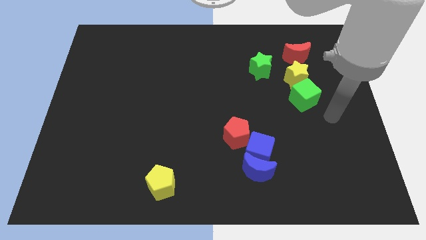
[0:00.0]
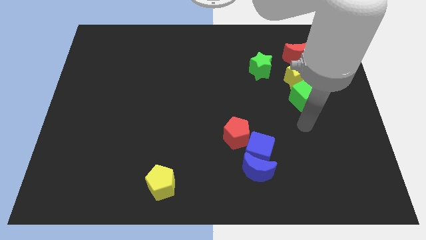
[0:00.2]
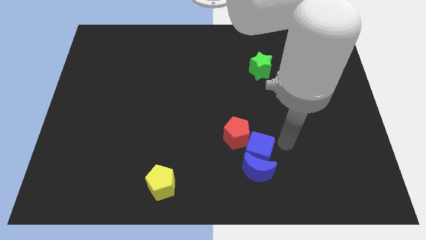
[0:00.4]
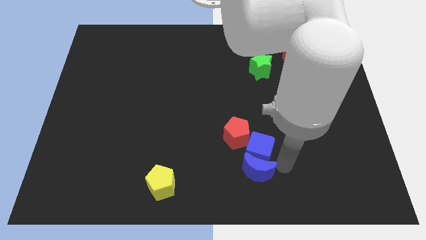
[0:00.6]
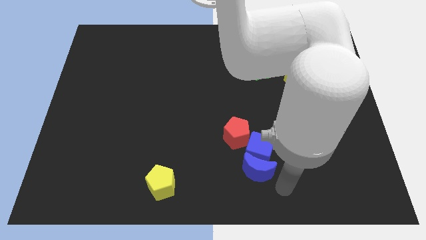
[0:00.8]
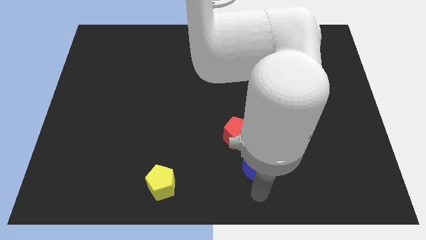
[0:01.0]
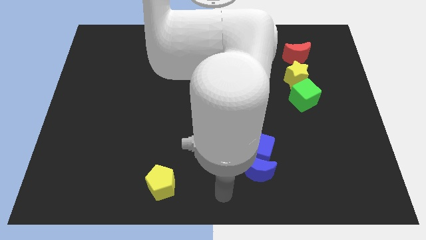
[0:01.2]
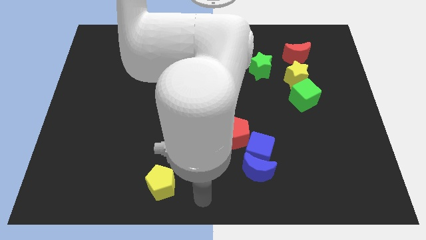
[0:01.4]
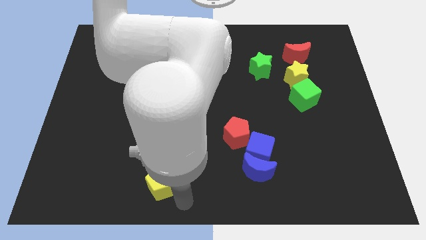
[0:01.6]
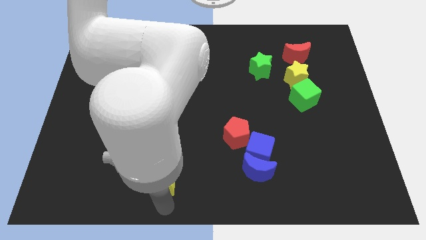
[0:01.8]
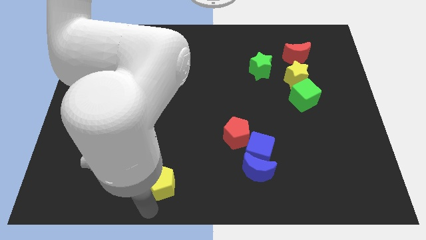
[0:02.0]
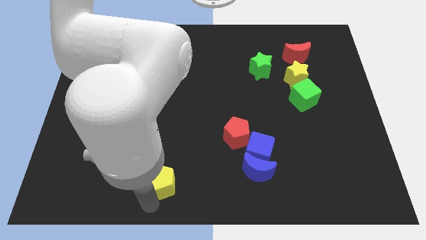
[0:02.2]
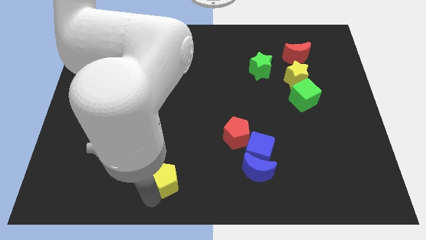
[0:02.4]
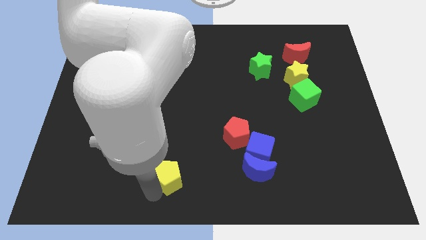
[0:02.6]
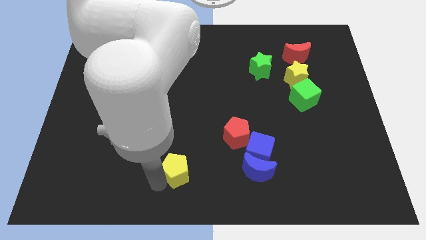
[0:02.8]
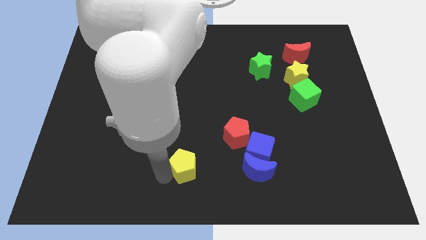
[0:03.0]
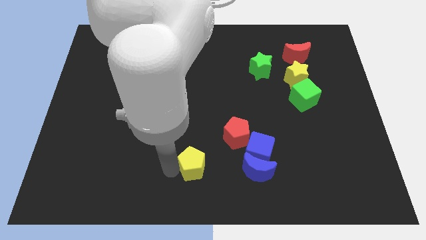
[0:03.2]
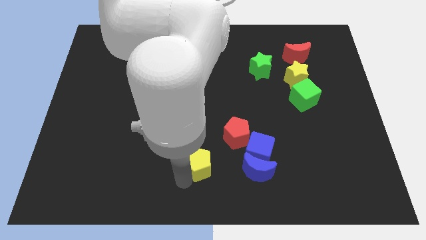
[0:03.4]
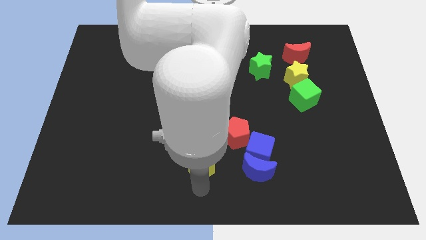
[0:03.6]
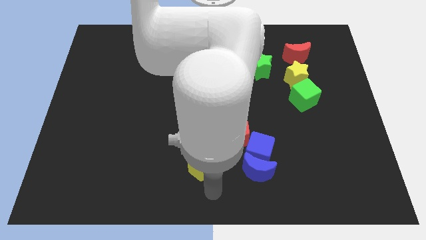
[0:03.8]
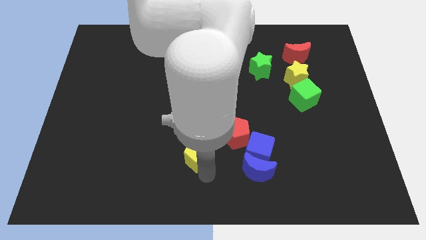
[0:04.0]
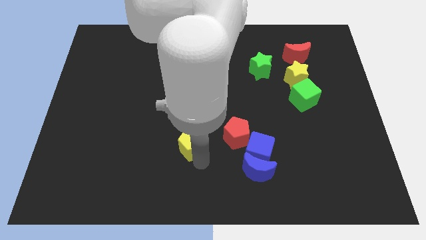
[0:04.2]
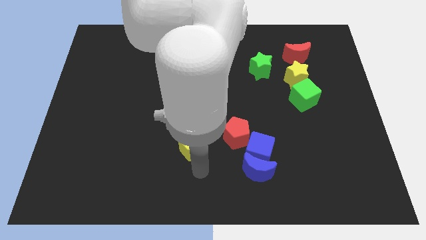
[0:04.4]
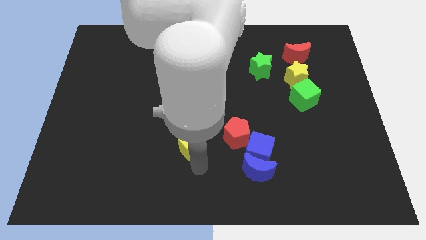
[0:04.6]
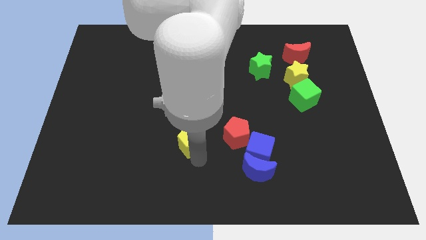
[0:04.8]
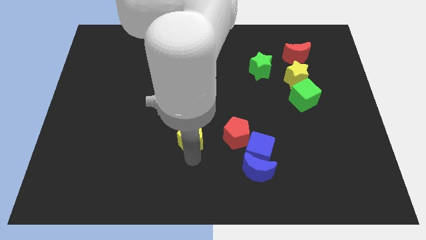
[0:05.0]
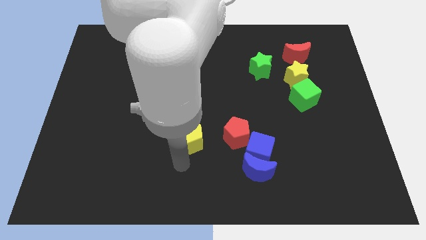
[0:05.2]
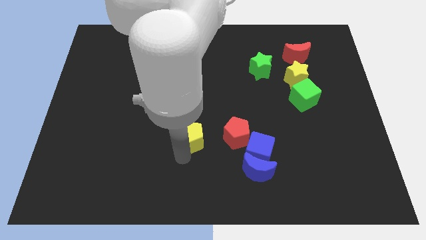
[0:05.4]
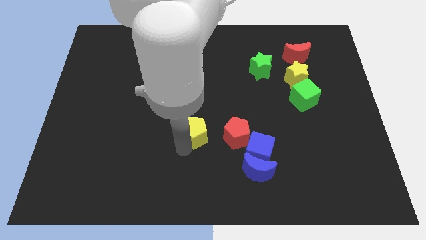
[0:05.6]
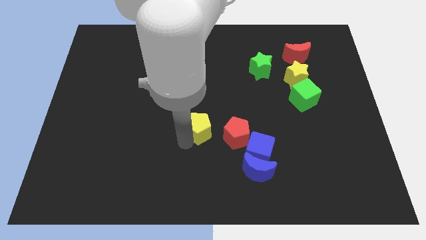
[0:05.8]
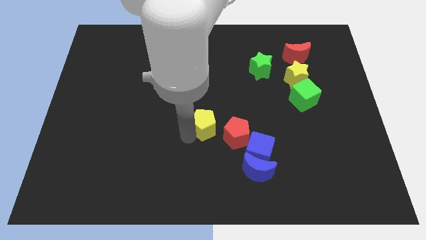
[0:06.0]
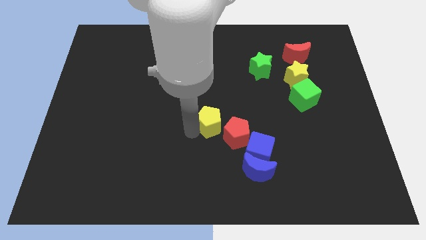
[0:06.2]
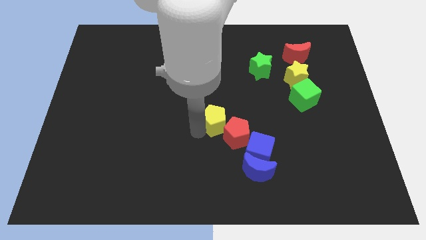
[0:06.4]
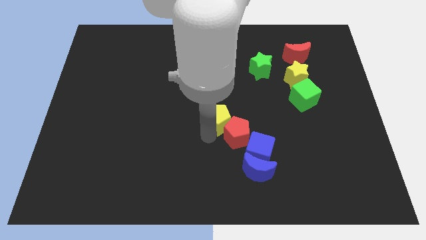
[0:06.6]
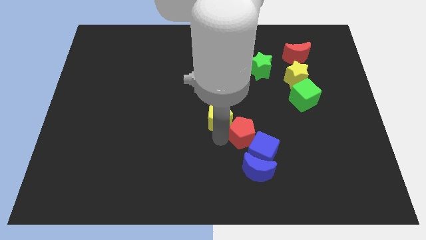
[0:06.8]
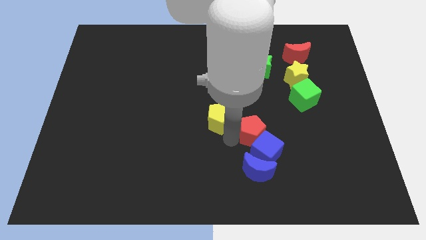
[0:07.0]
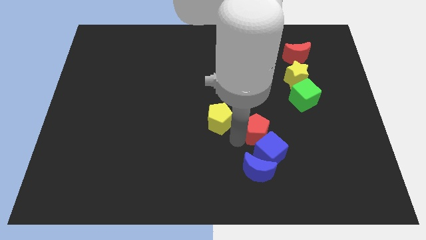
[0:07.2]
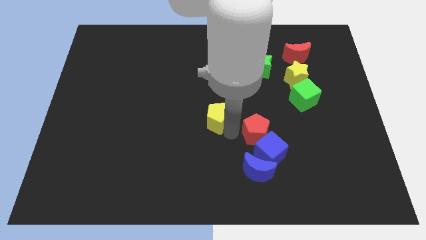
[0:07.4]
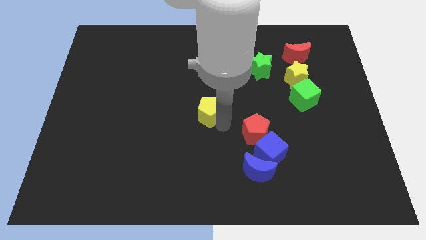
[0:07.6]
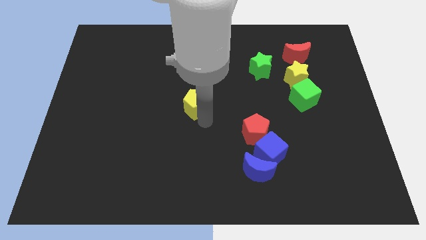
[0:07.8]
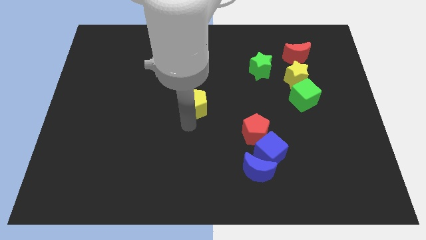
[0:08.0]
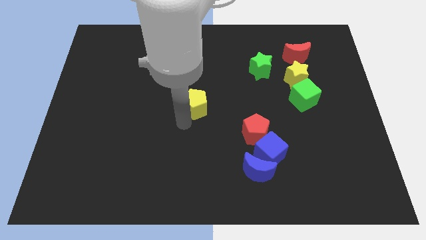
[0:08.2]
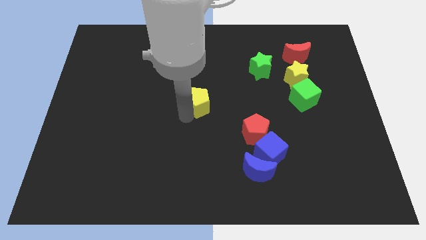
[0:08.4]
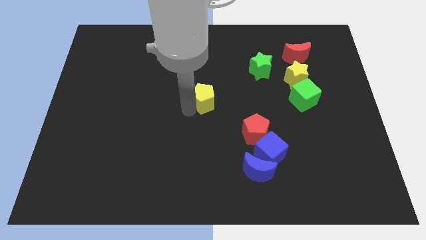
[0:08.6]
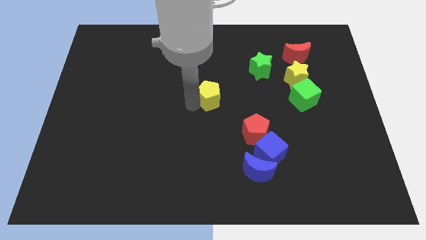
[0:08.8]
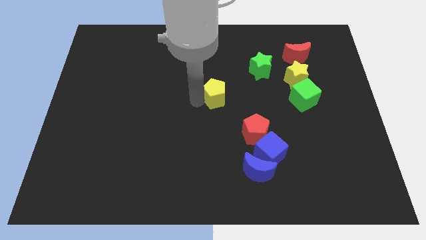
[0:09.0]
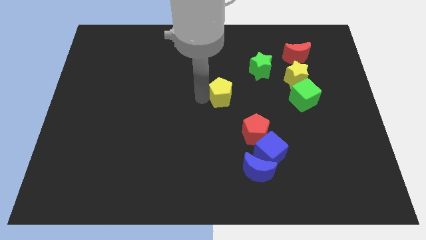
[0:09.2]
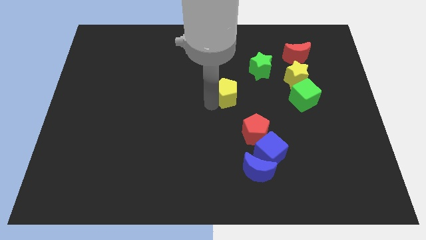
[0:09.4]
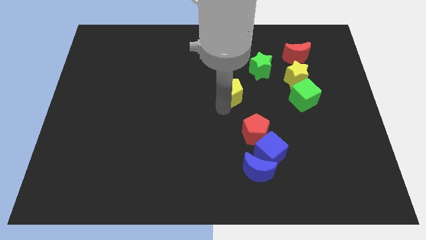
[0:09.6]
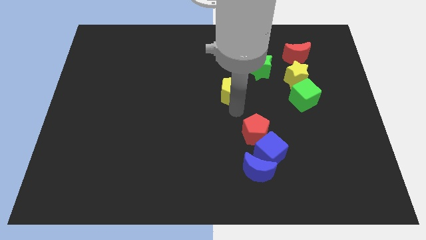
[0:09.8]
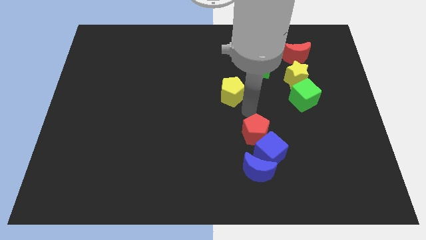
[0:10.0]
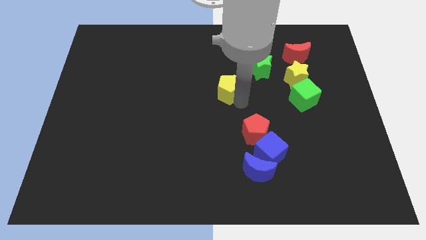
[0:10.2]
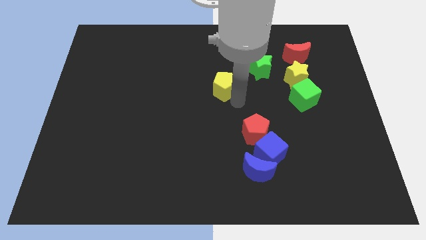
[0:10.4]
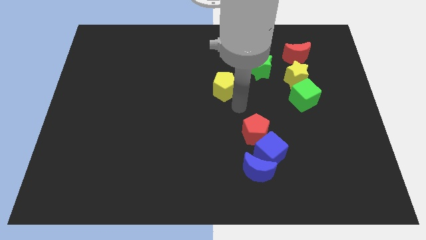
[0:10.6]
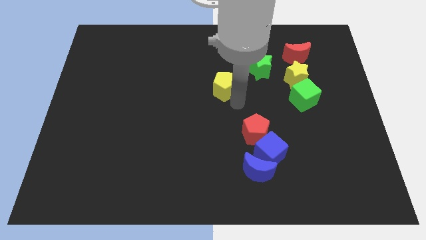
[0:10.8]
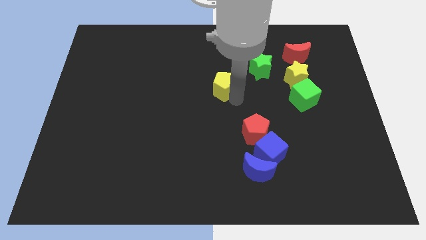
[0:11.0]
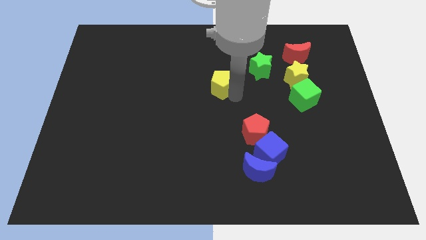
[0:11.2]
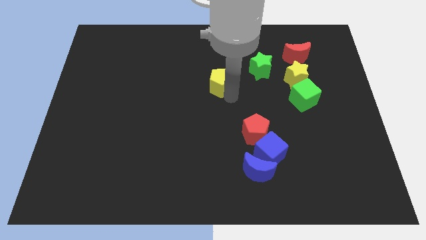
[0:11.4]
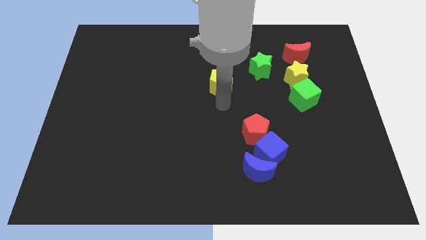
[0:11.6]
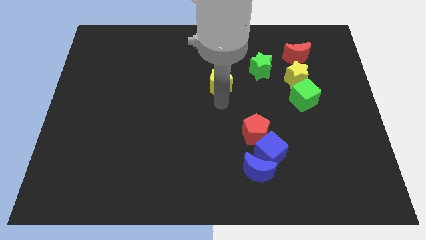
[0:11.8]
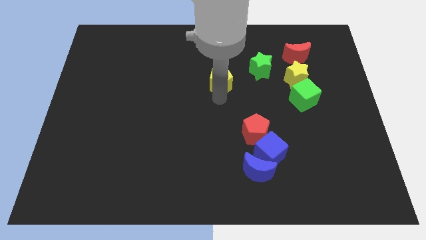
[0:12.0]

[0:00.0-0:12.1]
put the yellow pentagon just left of the green star
